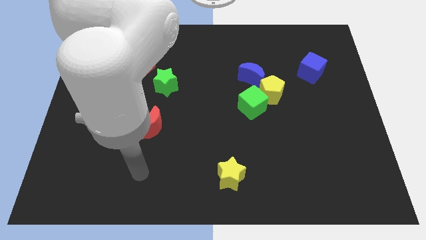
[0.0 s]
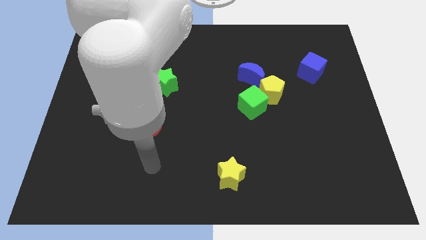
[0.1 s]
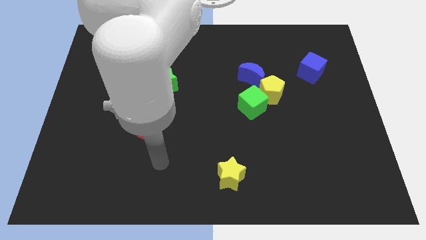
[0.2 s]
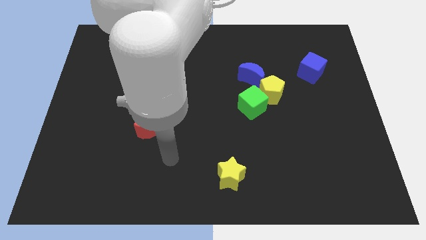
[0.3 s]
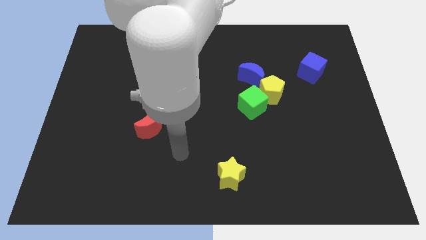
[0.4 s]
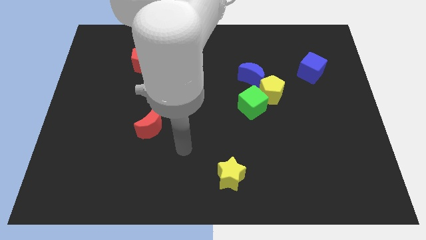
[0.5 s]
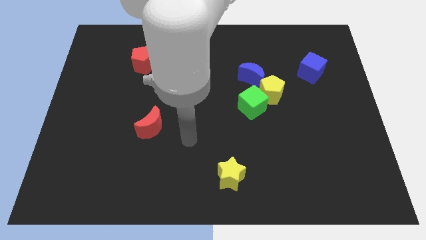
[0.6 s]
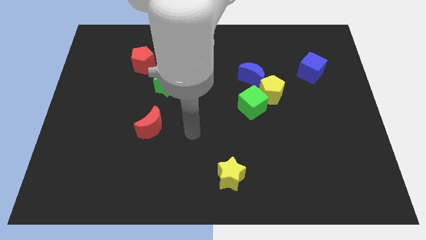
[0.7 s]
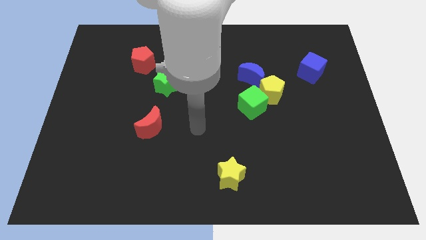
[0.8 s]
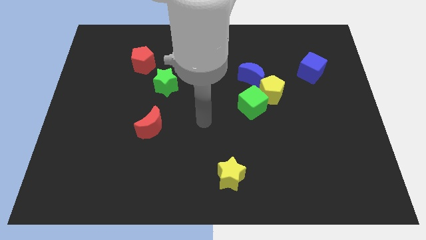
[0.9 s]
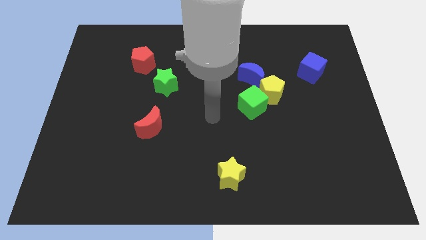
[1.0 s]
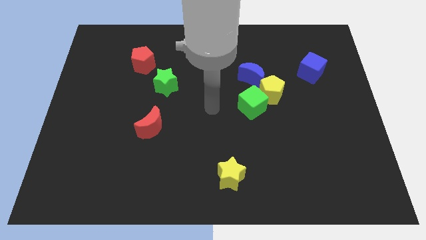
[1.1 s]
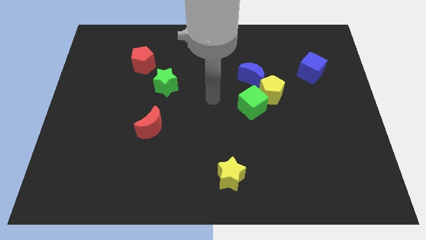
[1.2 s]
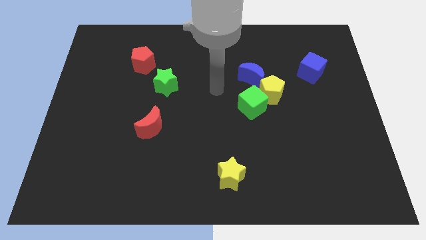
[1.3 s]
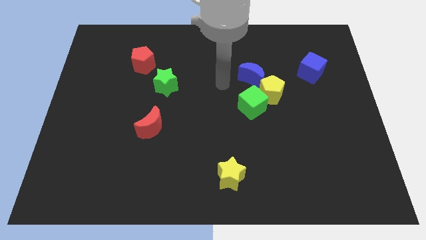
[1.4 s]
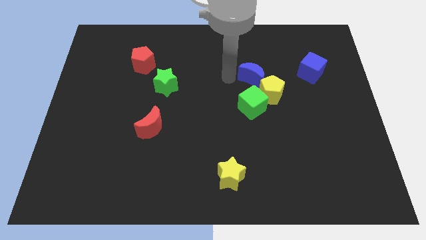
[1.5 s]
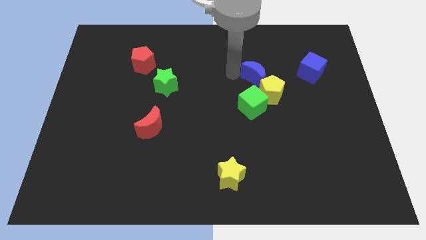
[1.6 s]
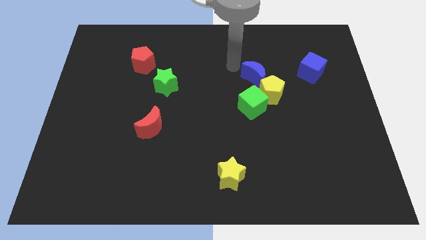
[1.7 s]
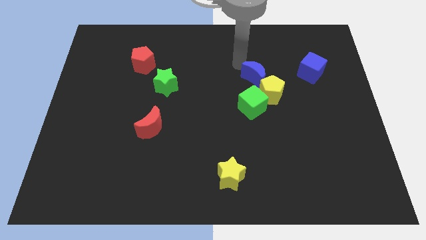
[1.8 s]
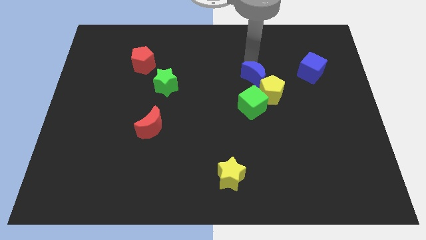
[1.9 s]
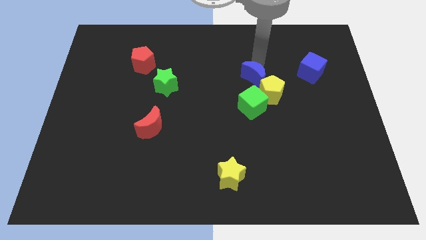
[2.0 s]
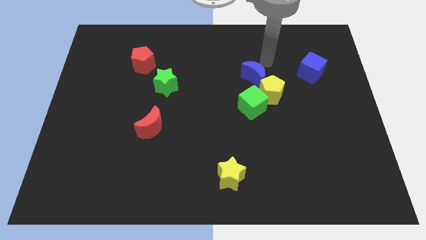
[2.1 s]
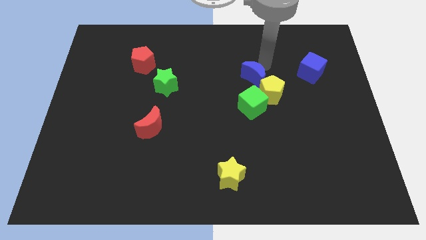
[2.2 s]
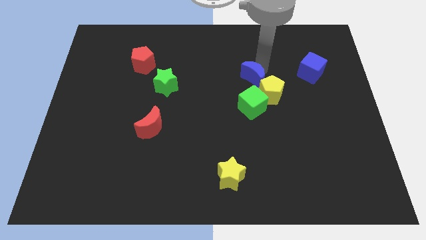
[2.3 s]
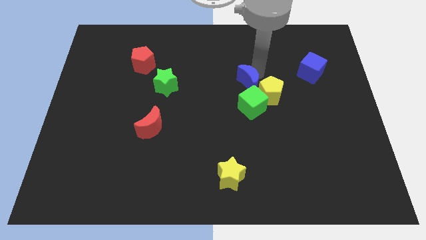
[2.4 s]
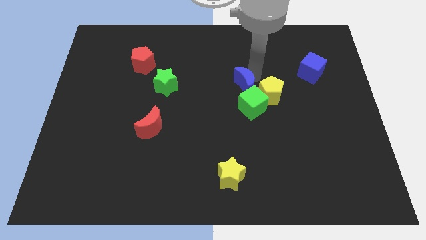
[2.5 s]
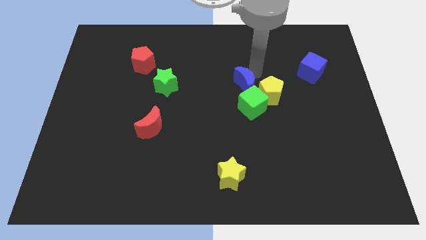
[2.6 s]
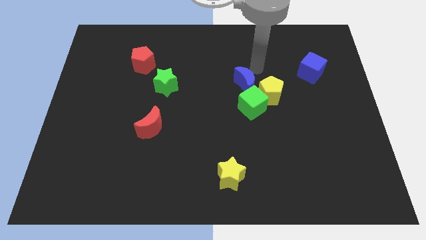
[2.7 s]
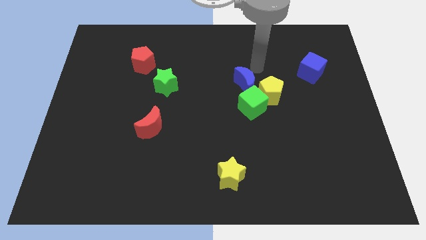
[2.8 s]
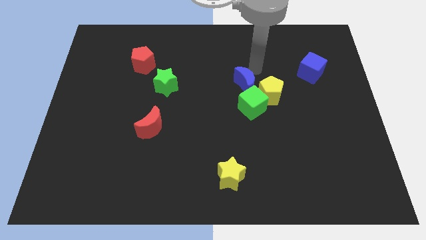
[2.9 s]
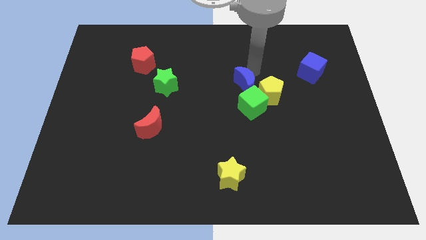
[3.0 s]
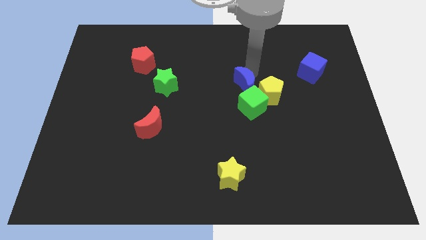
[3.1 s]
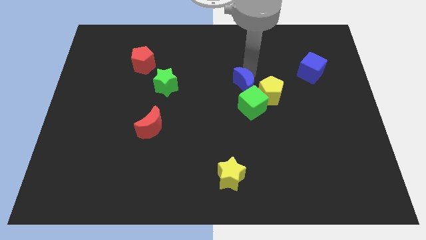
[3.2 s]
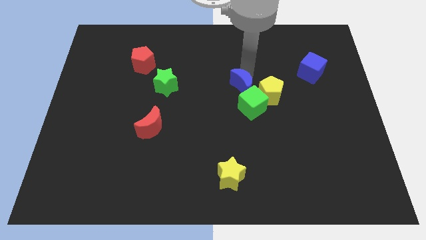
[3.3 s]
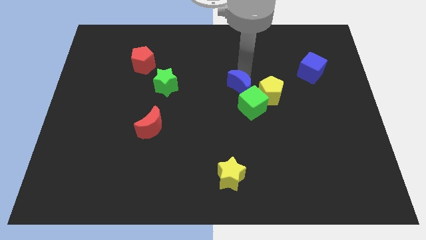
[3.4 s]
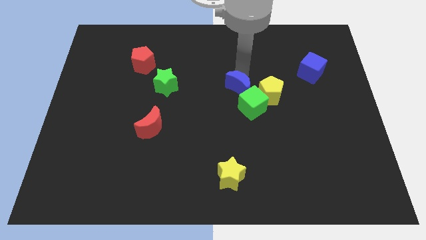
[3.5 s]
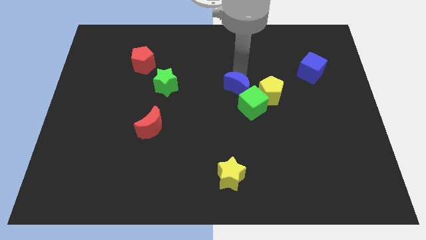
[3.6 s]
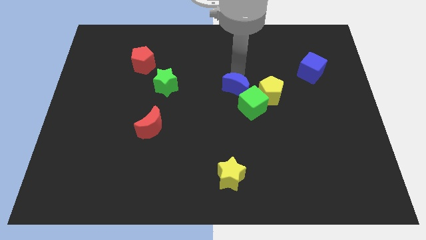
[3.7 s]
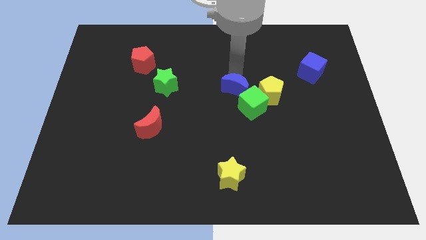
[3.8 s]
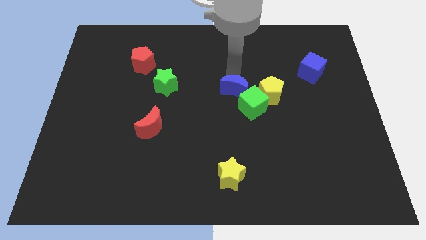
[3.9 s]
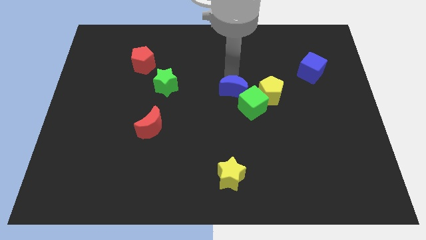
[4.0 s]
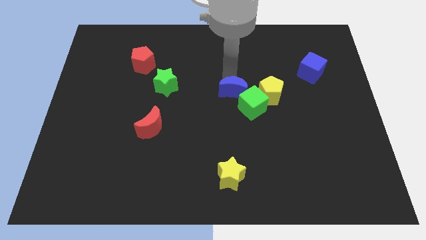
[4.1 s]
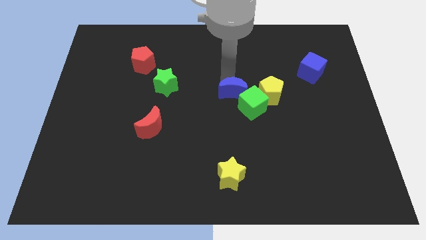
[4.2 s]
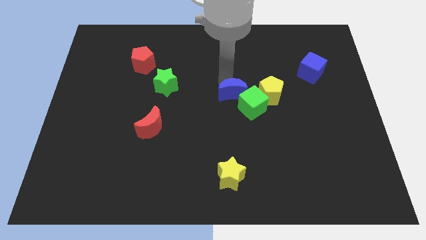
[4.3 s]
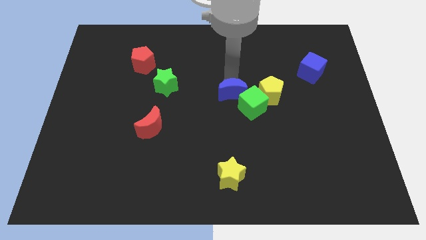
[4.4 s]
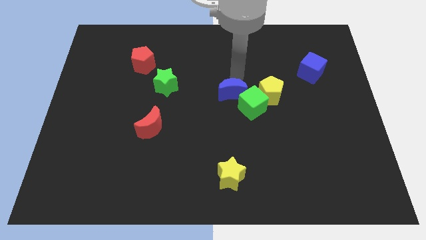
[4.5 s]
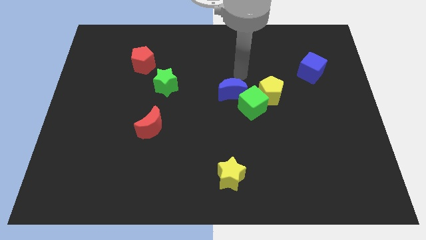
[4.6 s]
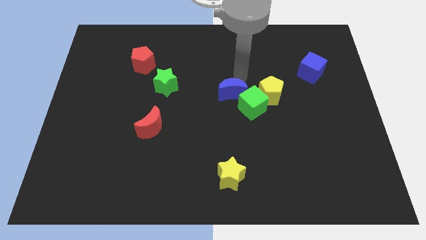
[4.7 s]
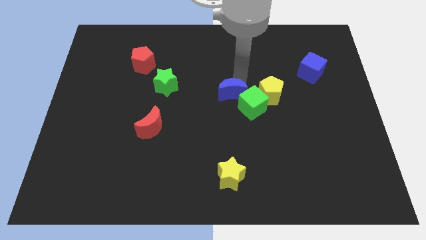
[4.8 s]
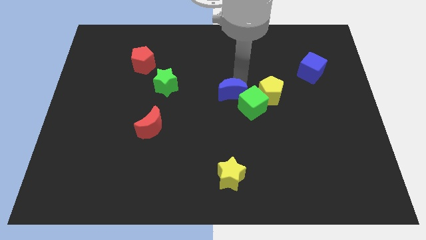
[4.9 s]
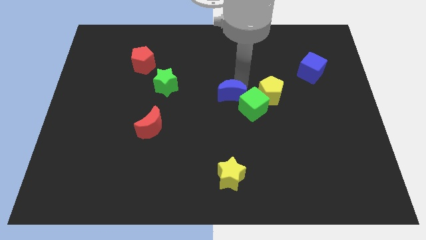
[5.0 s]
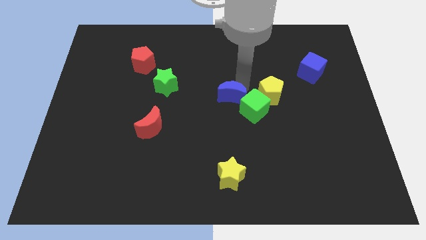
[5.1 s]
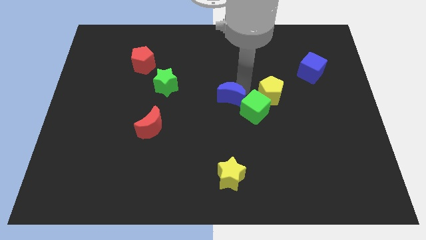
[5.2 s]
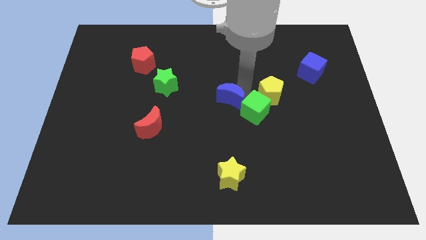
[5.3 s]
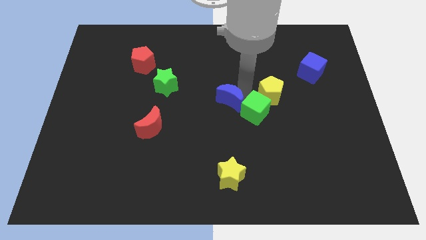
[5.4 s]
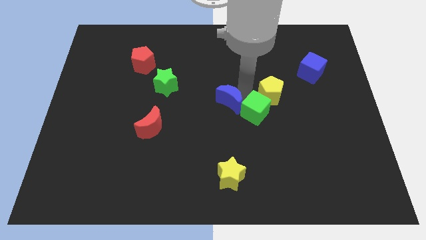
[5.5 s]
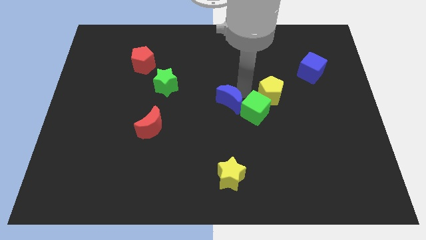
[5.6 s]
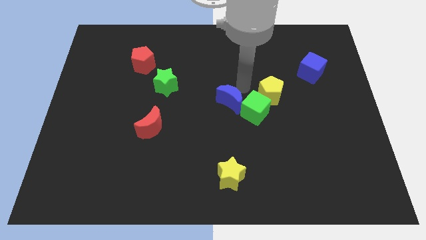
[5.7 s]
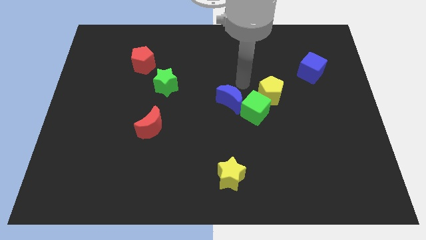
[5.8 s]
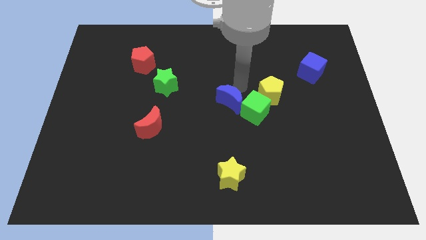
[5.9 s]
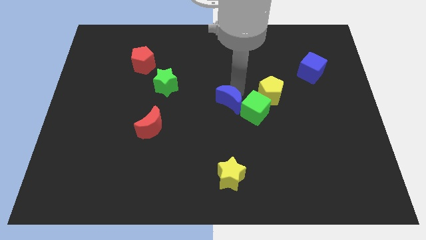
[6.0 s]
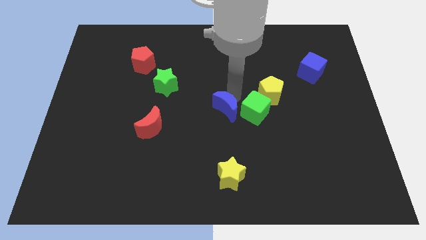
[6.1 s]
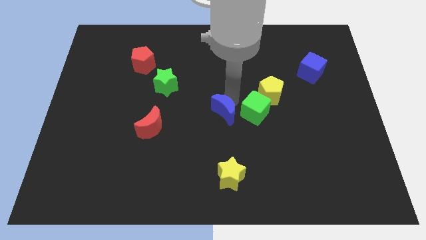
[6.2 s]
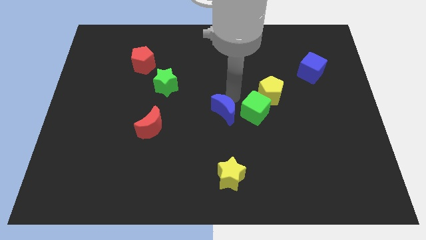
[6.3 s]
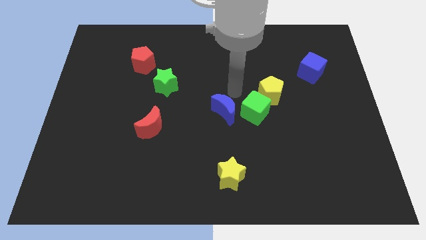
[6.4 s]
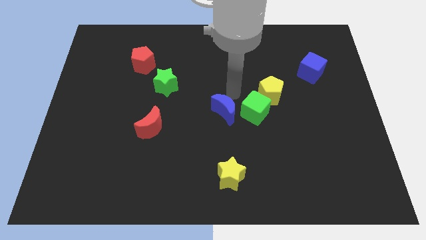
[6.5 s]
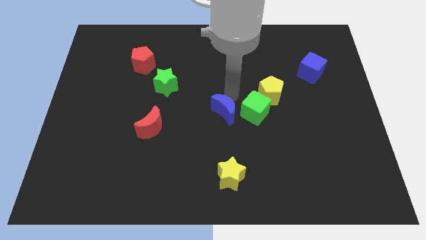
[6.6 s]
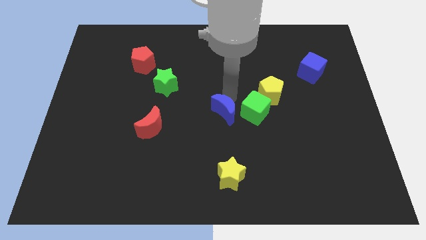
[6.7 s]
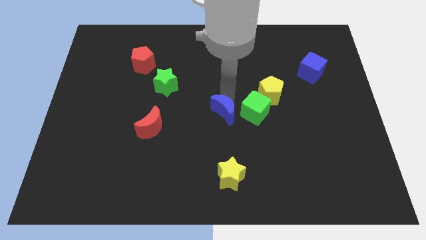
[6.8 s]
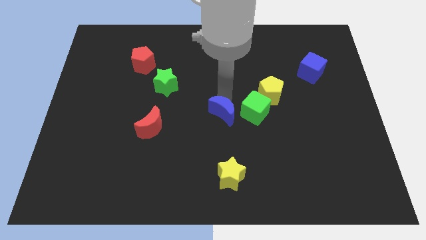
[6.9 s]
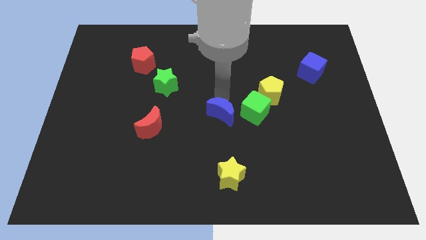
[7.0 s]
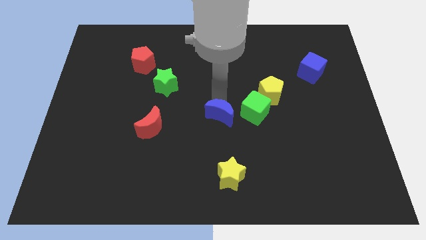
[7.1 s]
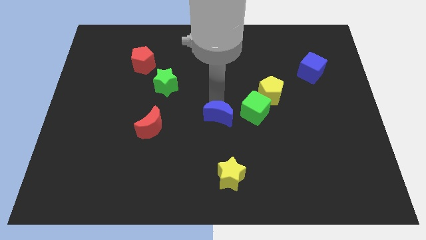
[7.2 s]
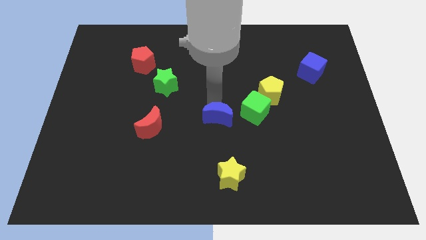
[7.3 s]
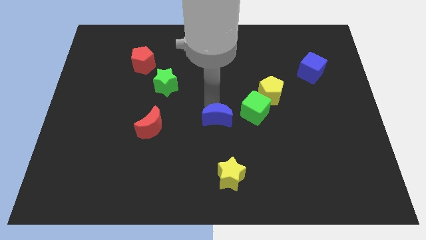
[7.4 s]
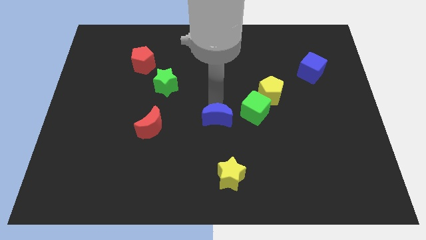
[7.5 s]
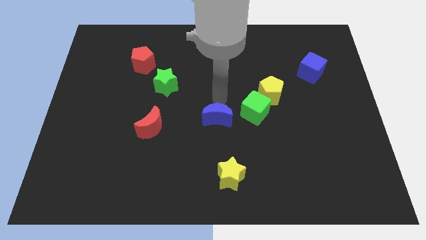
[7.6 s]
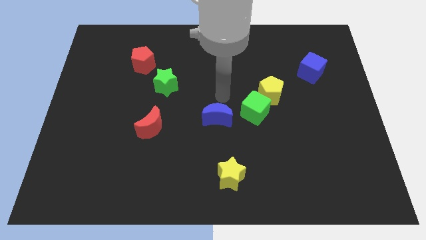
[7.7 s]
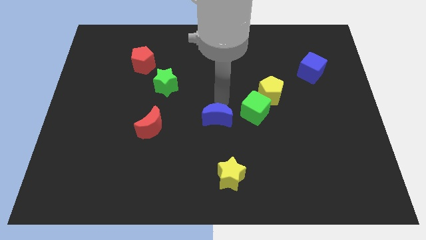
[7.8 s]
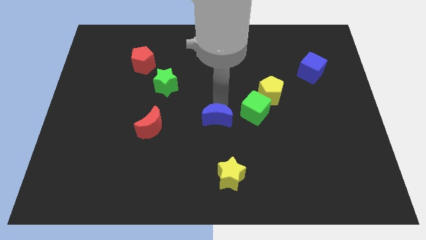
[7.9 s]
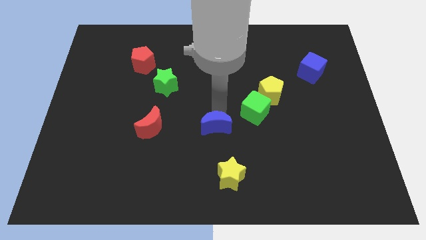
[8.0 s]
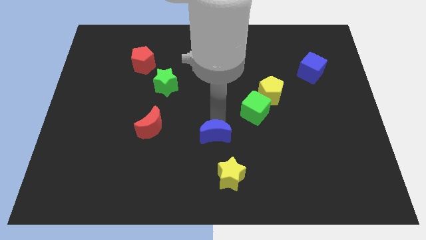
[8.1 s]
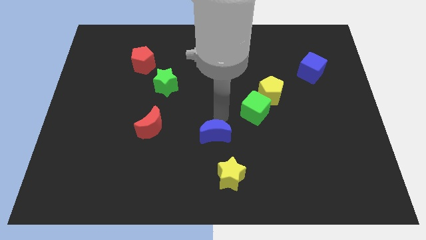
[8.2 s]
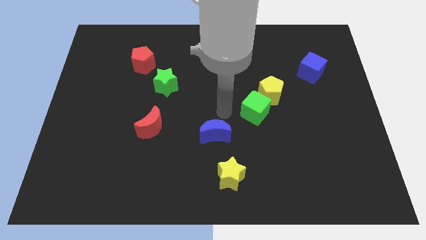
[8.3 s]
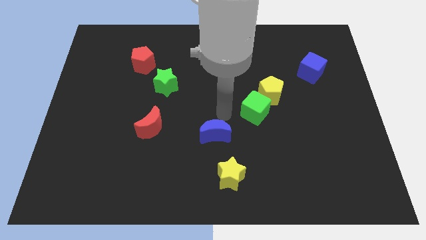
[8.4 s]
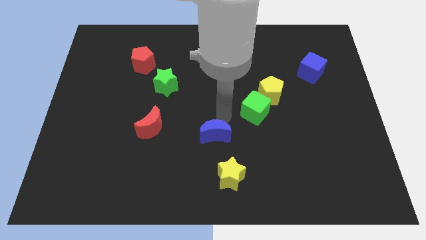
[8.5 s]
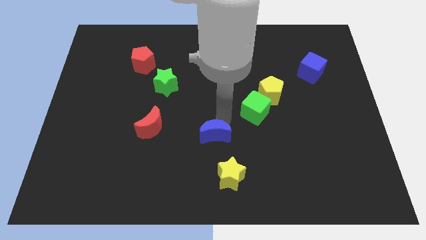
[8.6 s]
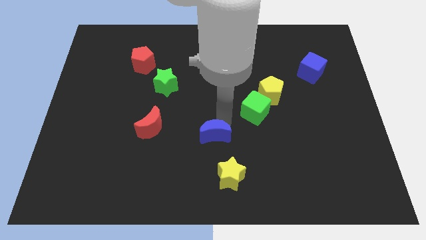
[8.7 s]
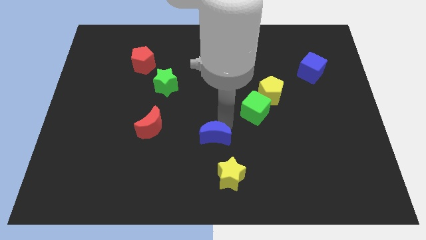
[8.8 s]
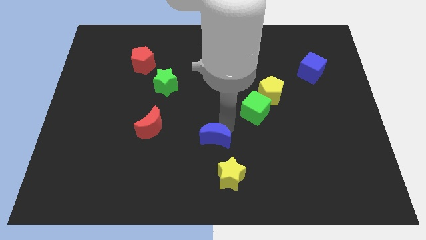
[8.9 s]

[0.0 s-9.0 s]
put the blue moon to the top left of the yellow star
